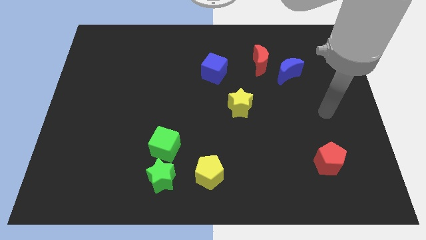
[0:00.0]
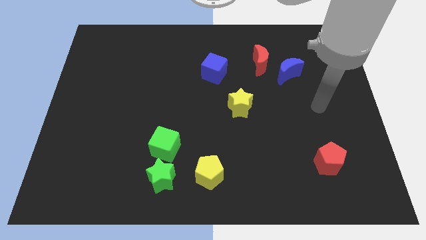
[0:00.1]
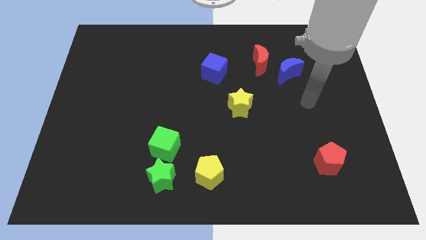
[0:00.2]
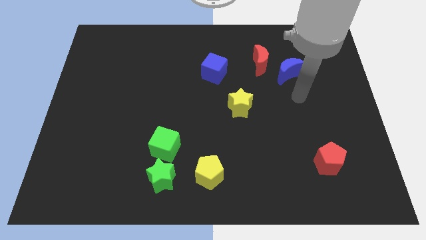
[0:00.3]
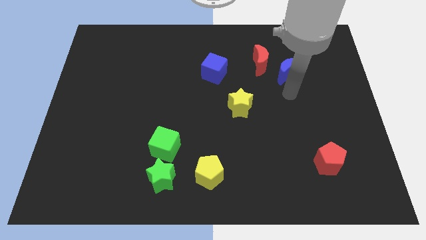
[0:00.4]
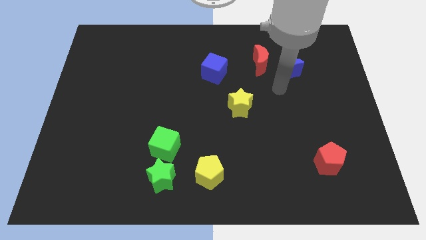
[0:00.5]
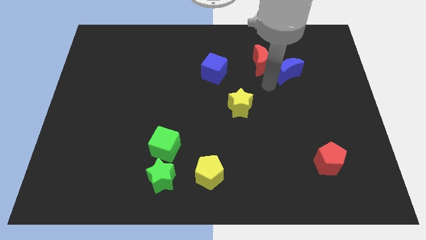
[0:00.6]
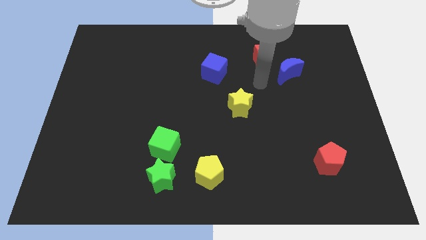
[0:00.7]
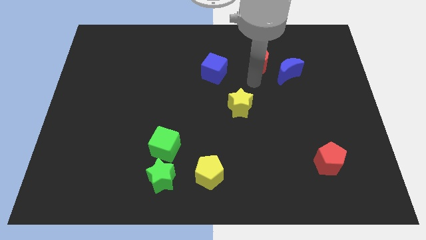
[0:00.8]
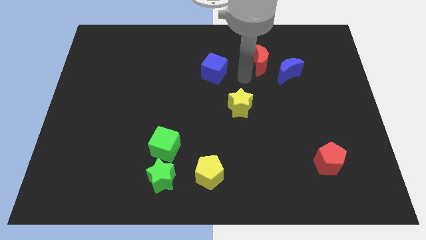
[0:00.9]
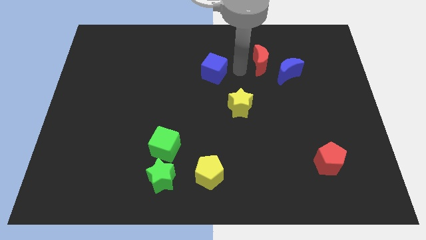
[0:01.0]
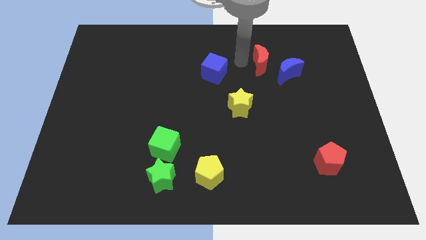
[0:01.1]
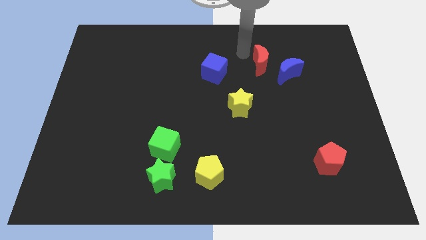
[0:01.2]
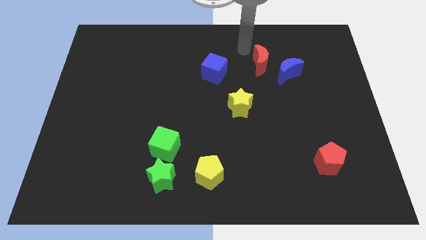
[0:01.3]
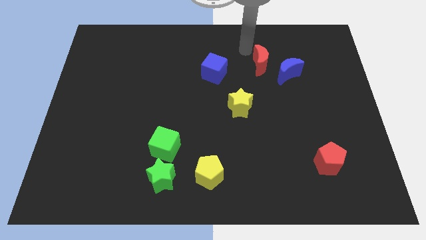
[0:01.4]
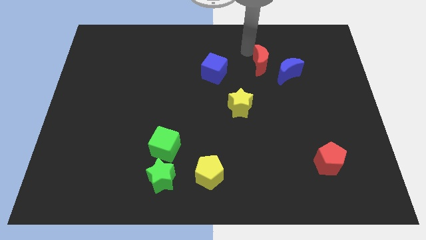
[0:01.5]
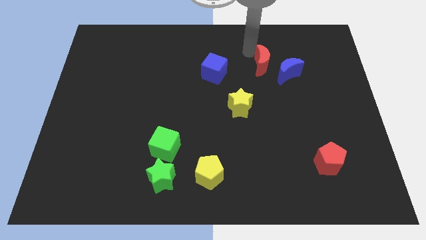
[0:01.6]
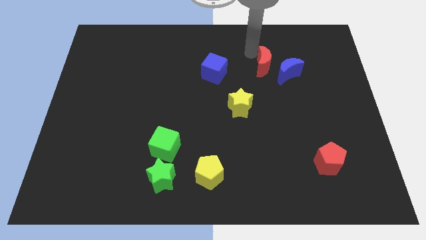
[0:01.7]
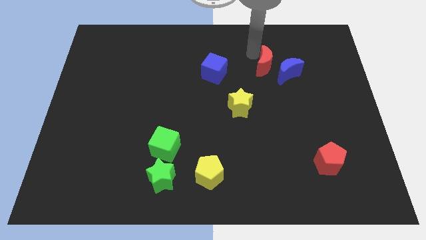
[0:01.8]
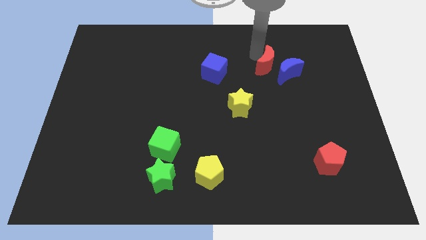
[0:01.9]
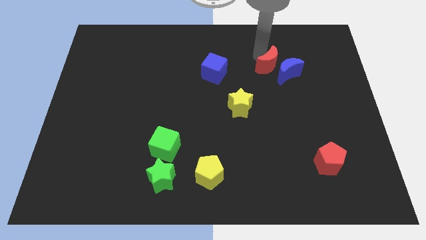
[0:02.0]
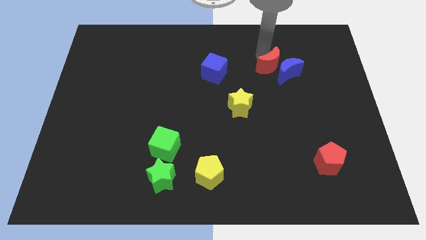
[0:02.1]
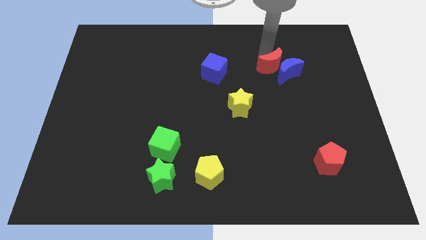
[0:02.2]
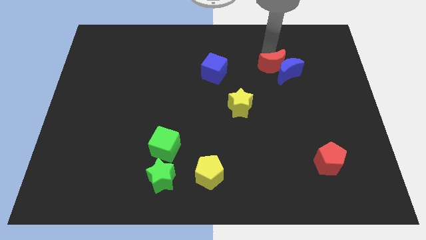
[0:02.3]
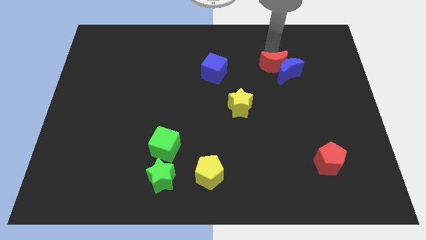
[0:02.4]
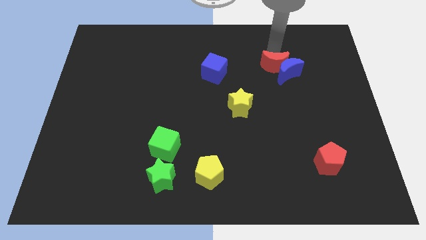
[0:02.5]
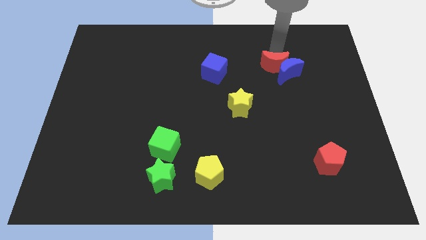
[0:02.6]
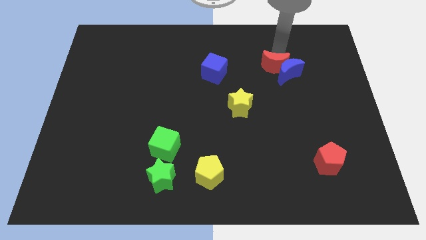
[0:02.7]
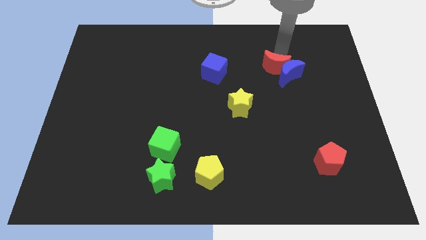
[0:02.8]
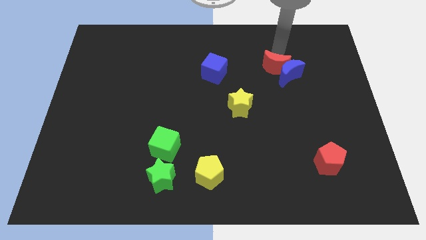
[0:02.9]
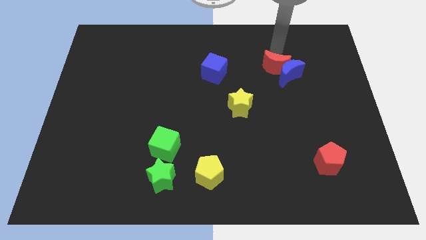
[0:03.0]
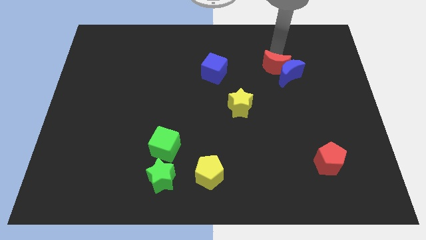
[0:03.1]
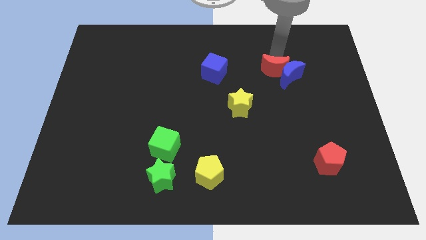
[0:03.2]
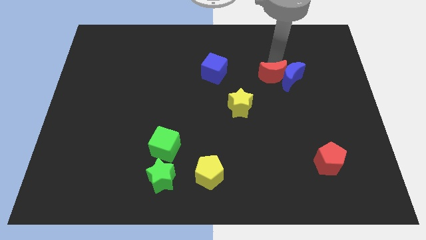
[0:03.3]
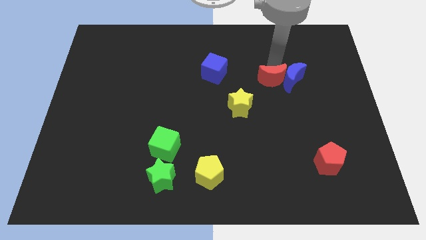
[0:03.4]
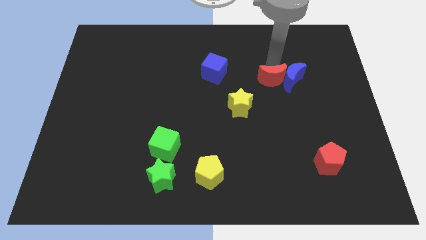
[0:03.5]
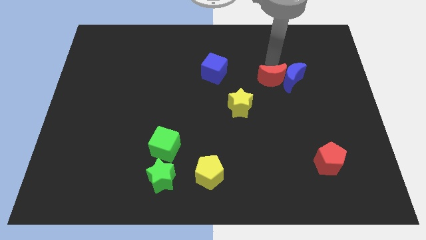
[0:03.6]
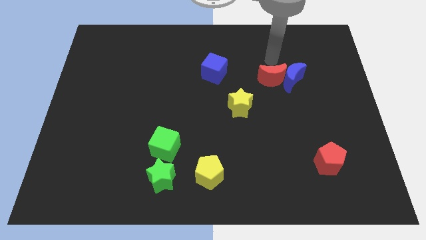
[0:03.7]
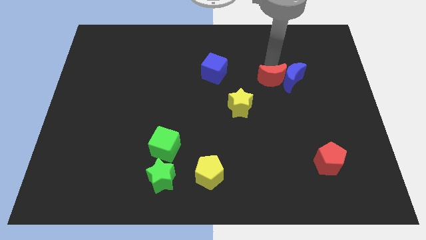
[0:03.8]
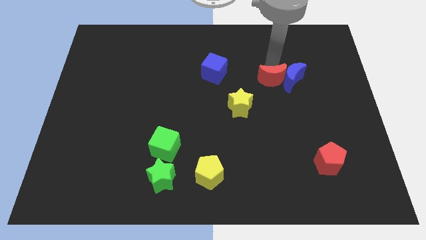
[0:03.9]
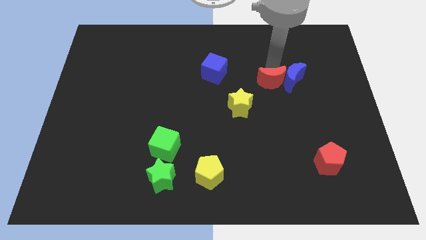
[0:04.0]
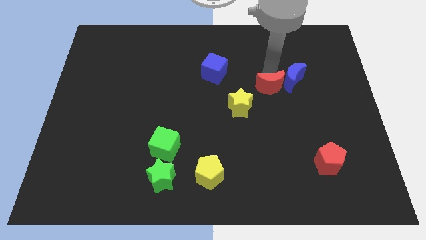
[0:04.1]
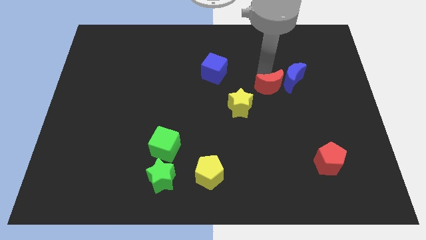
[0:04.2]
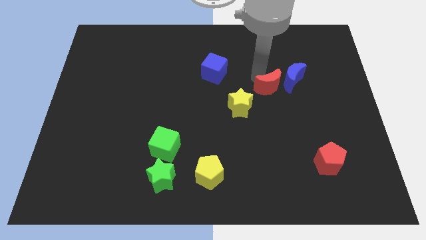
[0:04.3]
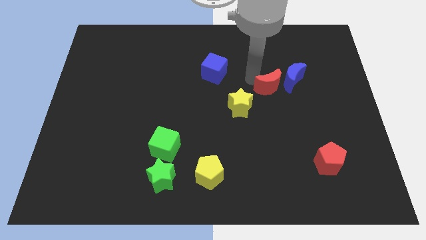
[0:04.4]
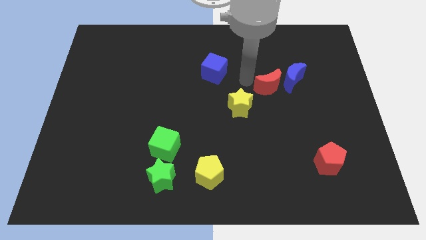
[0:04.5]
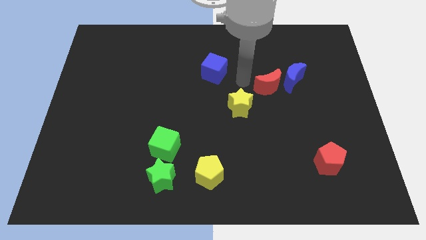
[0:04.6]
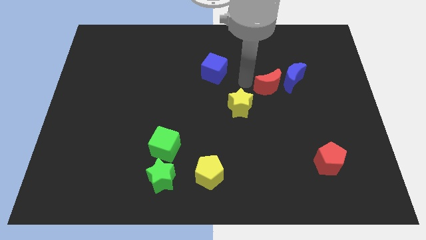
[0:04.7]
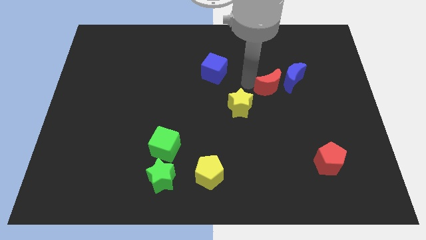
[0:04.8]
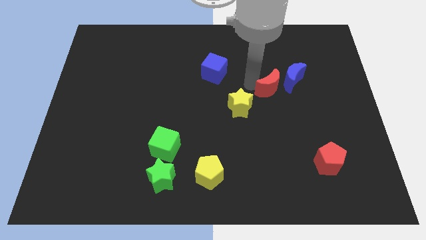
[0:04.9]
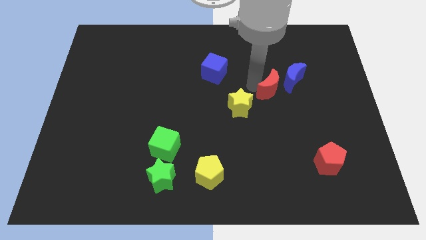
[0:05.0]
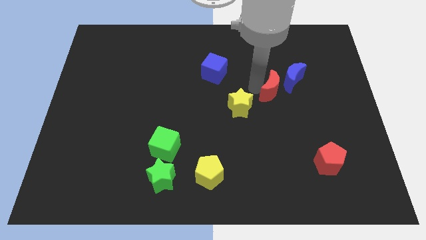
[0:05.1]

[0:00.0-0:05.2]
slide the red moon down and to the right diagonally somewhat

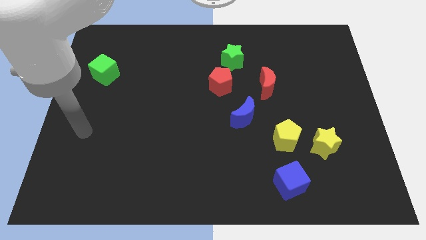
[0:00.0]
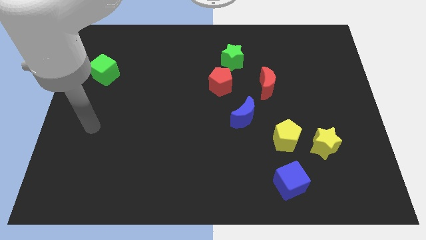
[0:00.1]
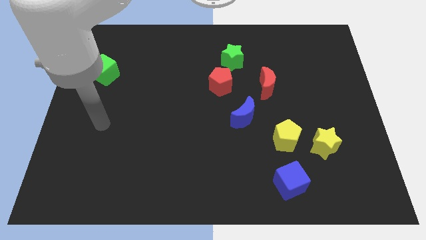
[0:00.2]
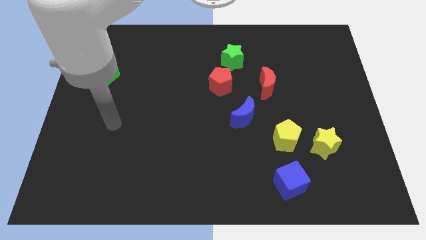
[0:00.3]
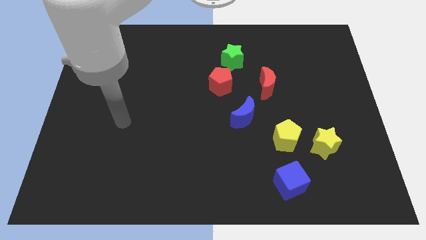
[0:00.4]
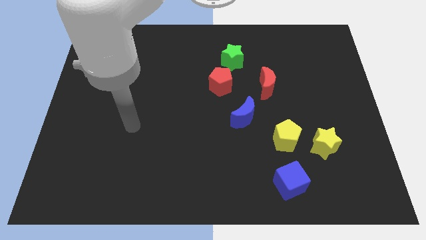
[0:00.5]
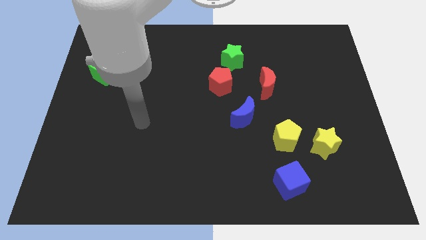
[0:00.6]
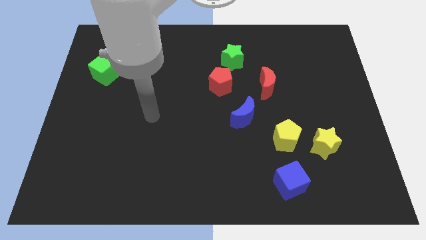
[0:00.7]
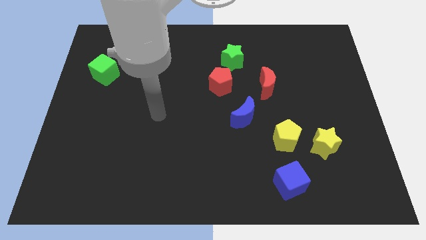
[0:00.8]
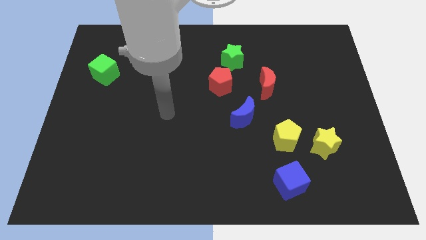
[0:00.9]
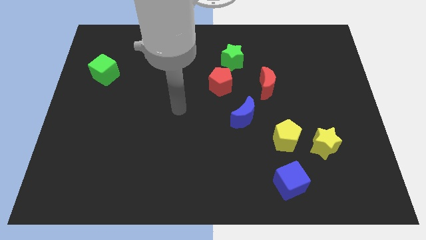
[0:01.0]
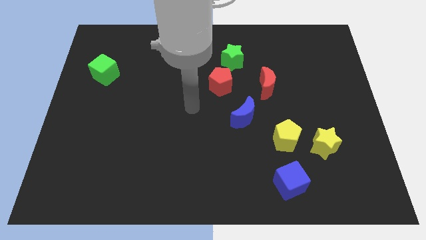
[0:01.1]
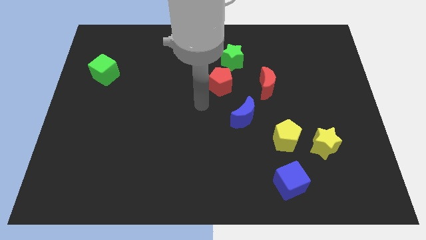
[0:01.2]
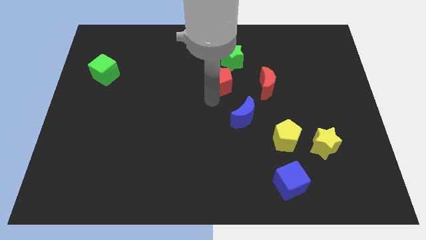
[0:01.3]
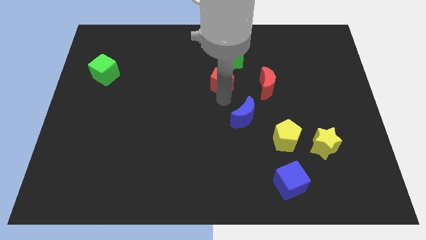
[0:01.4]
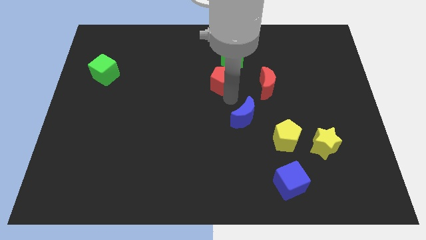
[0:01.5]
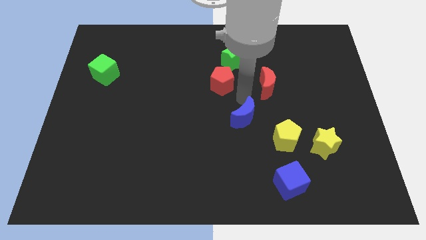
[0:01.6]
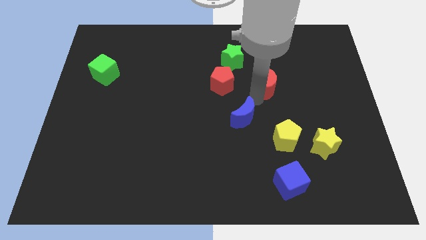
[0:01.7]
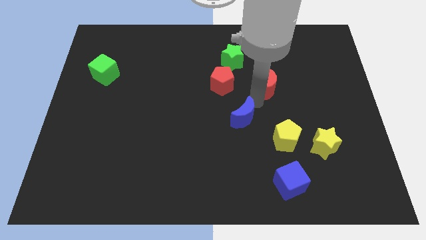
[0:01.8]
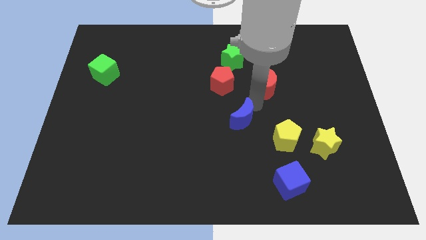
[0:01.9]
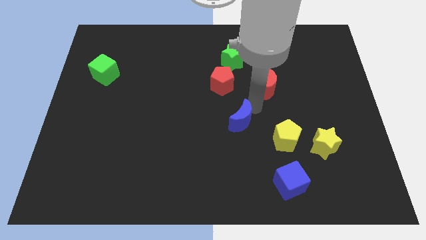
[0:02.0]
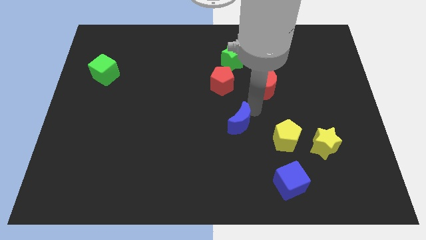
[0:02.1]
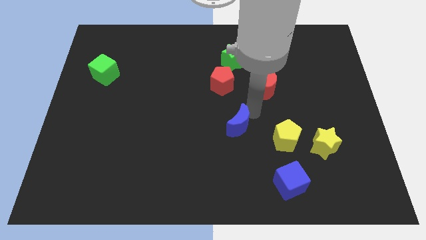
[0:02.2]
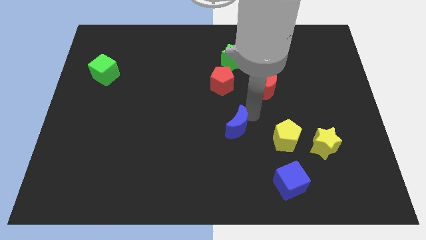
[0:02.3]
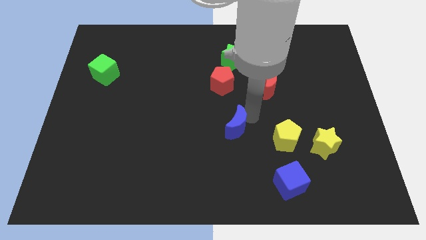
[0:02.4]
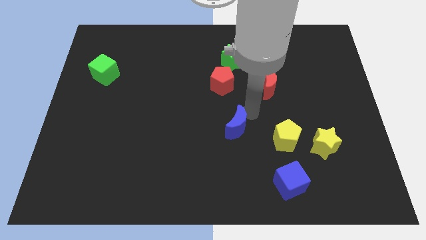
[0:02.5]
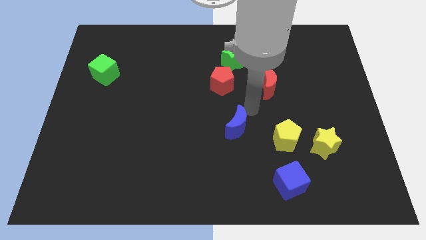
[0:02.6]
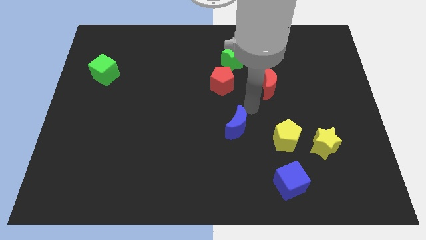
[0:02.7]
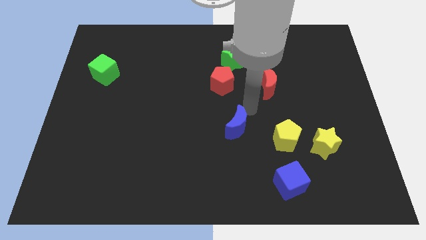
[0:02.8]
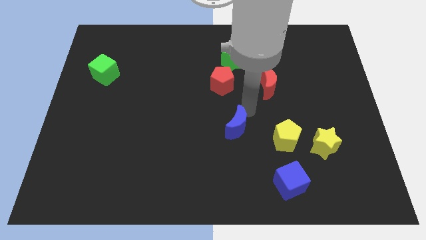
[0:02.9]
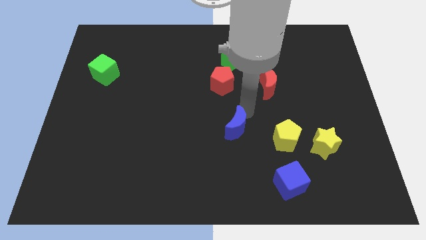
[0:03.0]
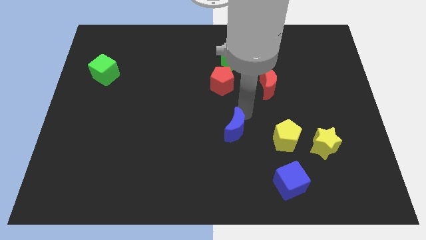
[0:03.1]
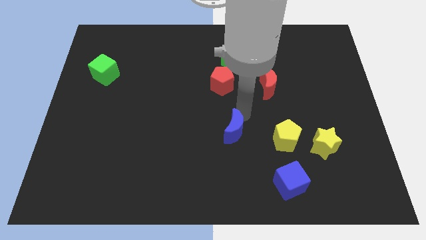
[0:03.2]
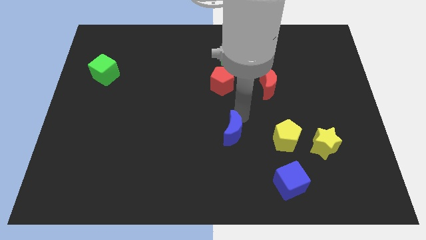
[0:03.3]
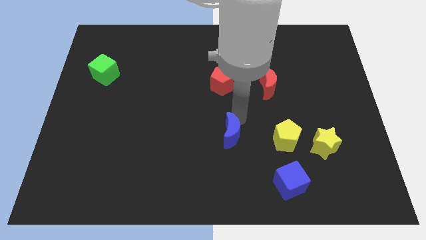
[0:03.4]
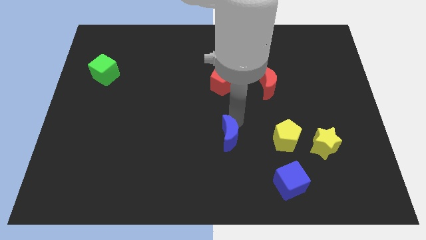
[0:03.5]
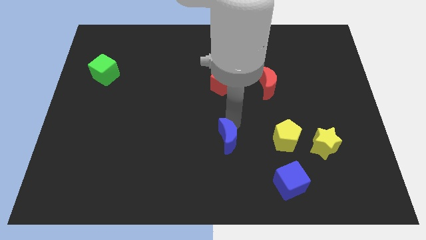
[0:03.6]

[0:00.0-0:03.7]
push the blue moon a bit downwards and left diagonally
